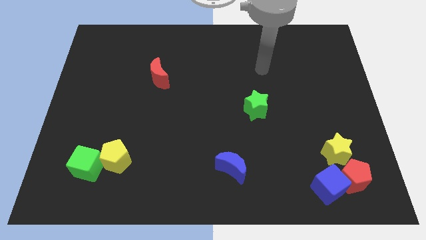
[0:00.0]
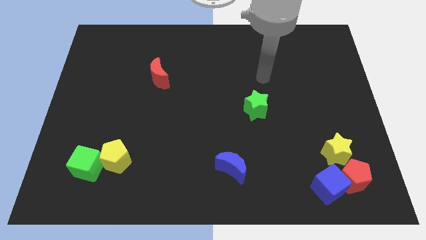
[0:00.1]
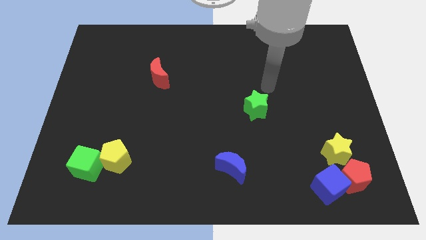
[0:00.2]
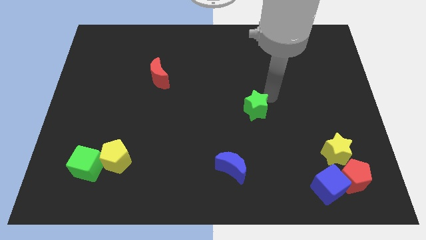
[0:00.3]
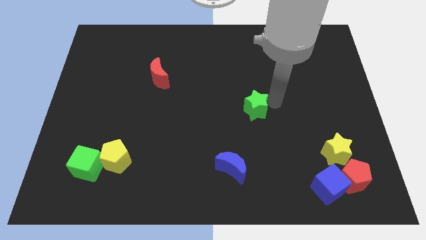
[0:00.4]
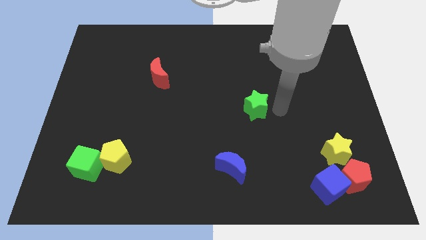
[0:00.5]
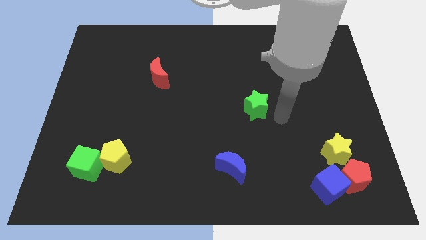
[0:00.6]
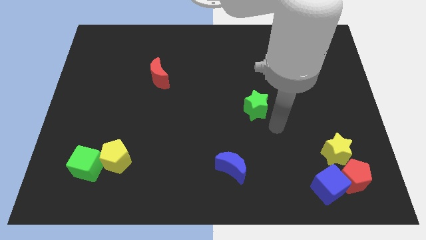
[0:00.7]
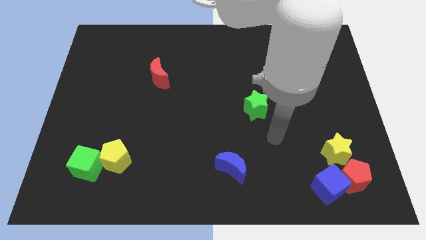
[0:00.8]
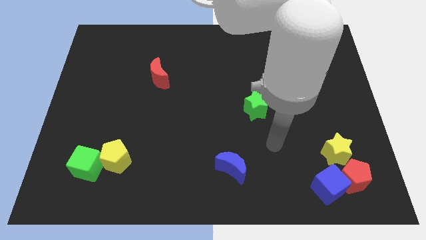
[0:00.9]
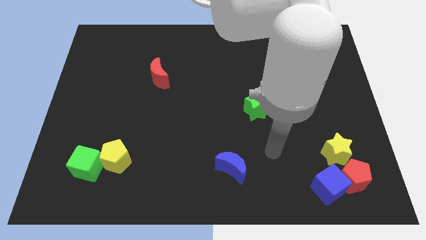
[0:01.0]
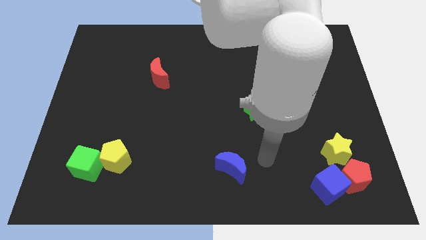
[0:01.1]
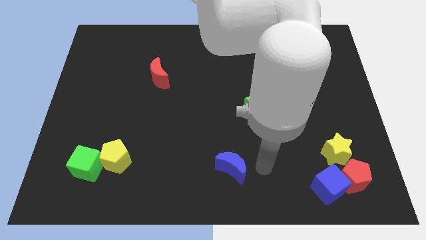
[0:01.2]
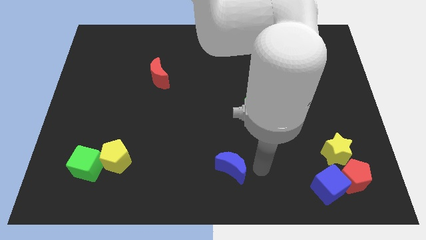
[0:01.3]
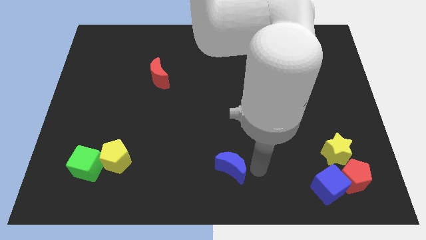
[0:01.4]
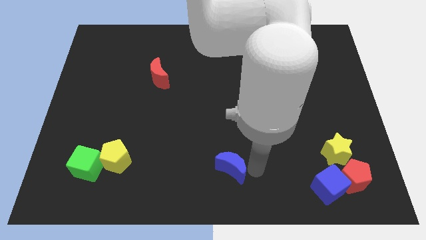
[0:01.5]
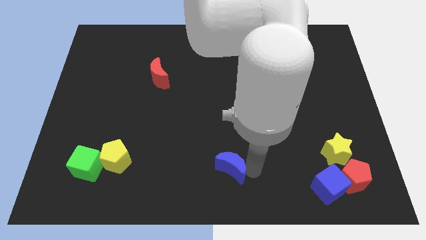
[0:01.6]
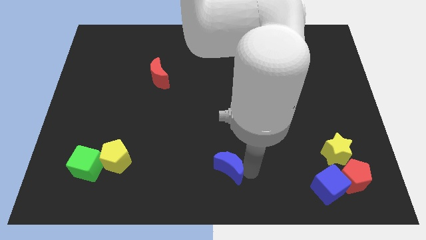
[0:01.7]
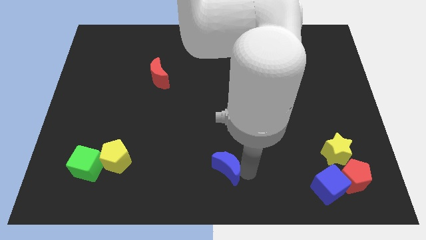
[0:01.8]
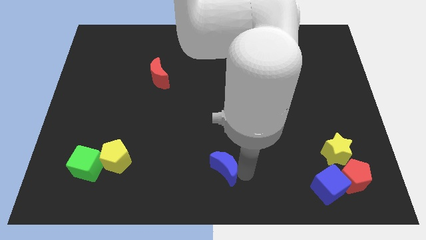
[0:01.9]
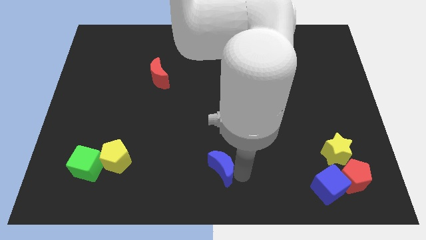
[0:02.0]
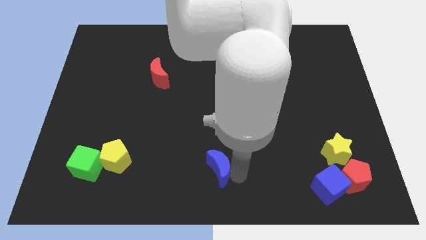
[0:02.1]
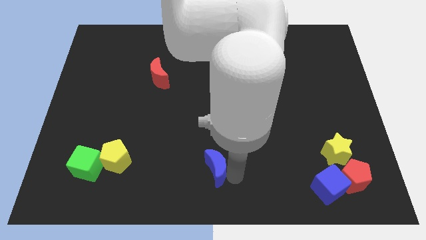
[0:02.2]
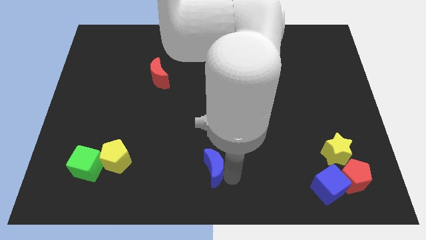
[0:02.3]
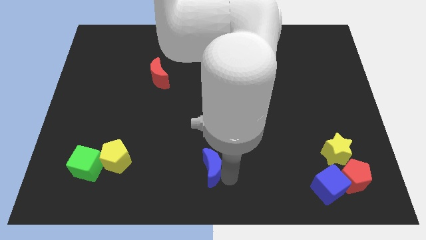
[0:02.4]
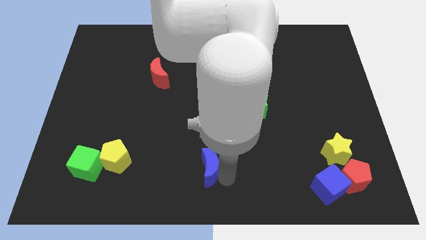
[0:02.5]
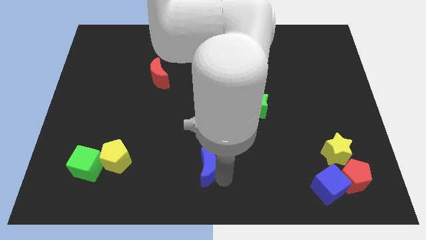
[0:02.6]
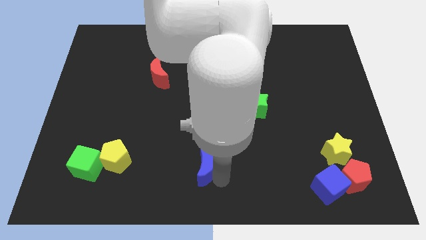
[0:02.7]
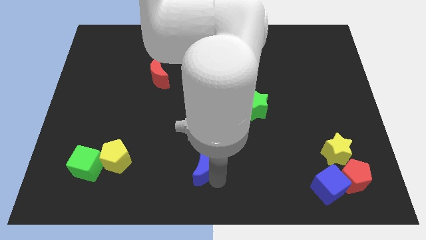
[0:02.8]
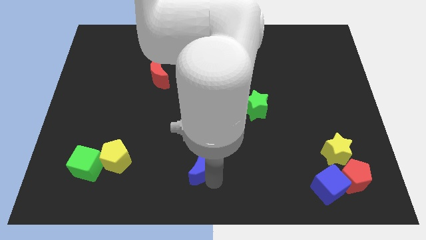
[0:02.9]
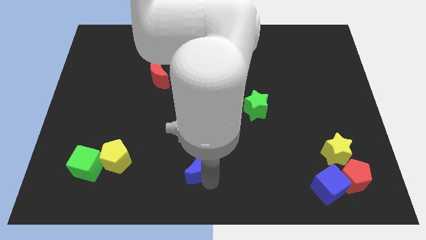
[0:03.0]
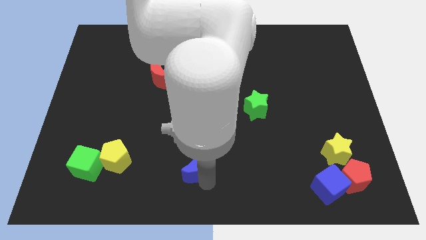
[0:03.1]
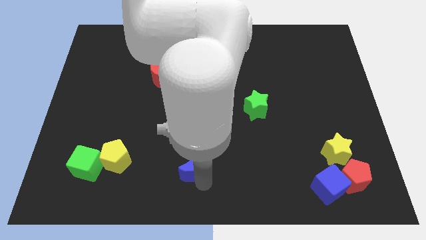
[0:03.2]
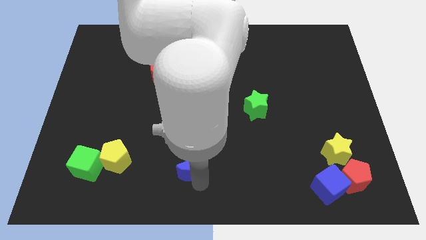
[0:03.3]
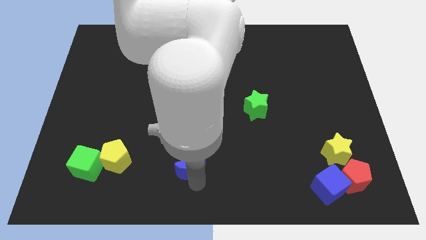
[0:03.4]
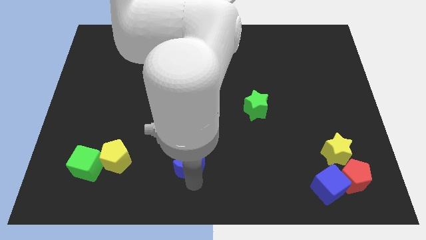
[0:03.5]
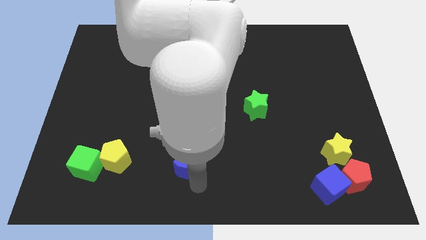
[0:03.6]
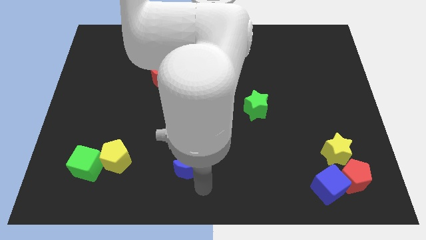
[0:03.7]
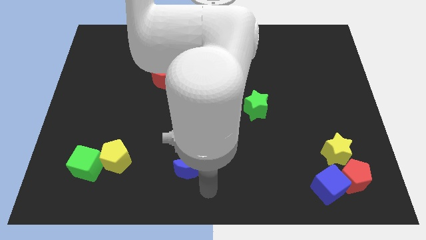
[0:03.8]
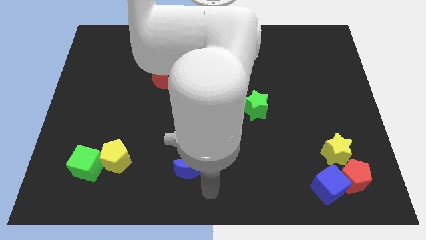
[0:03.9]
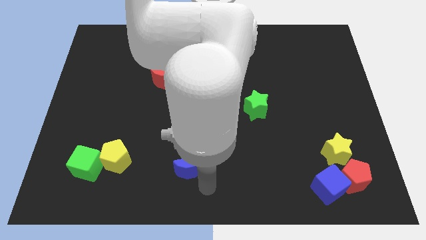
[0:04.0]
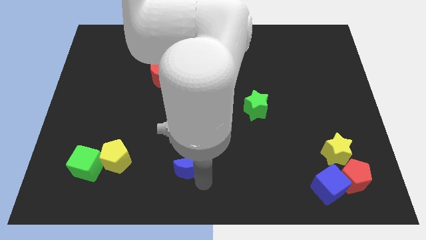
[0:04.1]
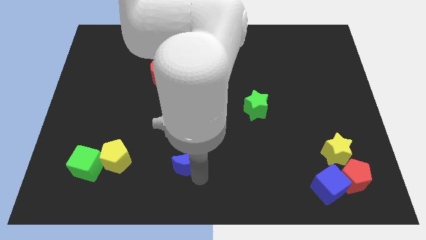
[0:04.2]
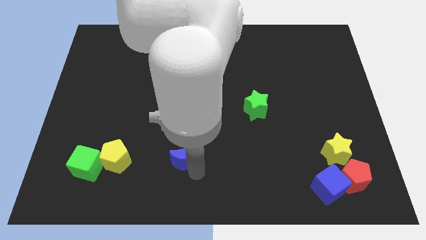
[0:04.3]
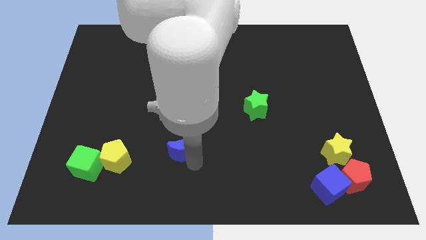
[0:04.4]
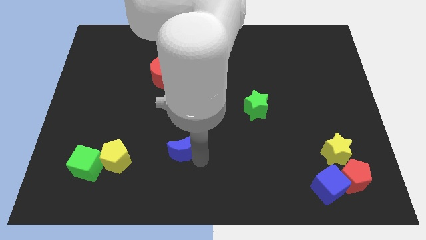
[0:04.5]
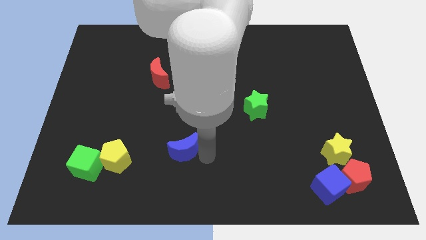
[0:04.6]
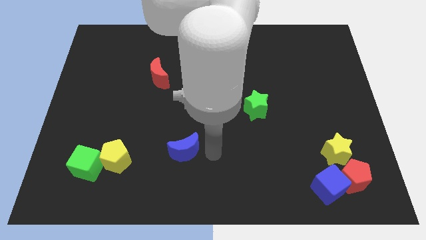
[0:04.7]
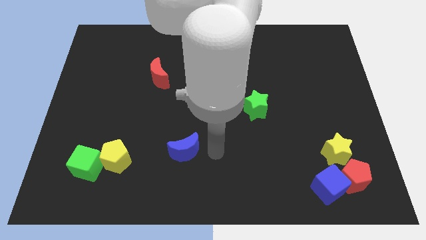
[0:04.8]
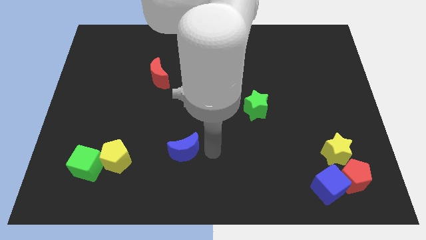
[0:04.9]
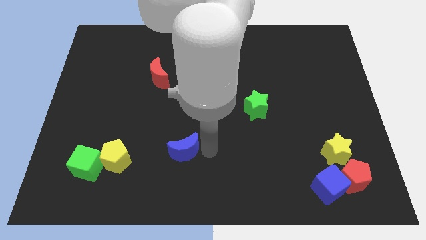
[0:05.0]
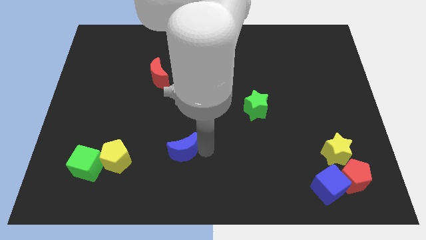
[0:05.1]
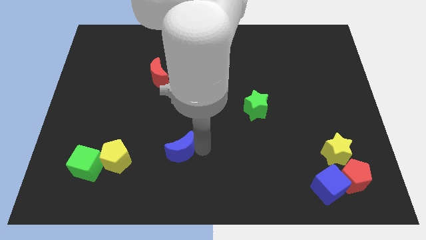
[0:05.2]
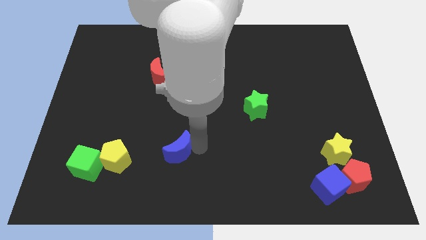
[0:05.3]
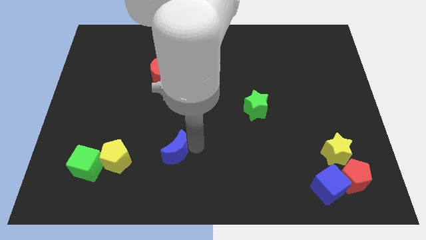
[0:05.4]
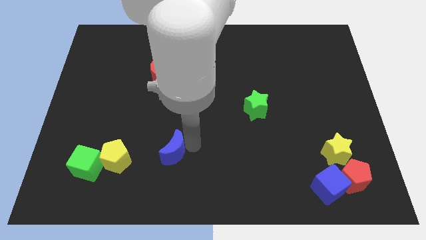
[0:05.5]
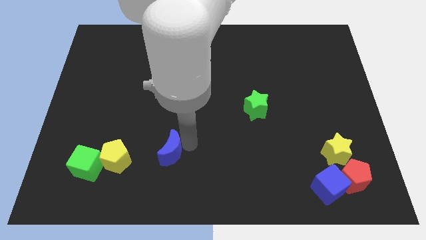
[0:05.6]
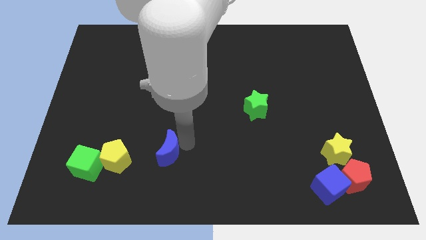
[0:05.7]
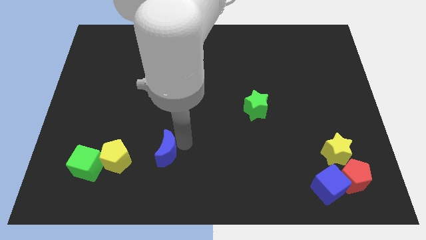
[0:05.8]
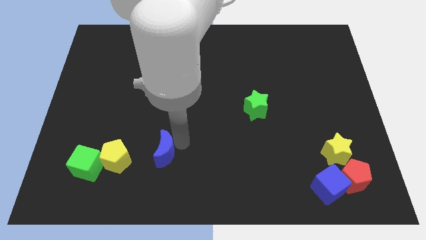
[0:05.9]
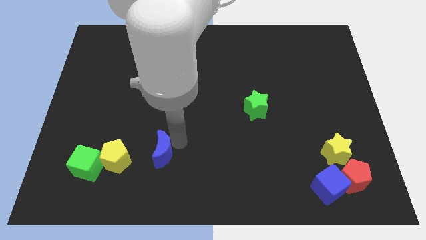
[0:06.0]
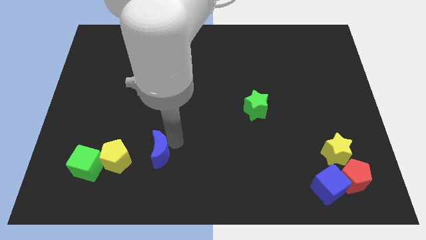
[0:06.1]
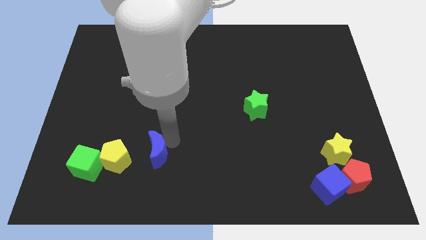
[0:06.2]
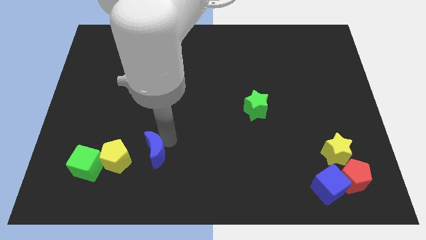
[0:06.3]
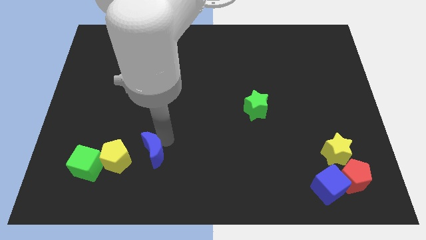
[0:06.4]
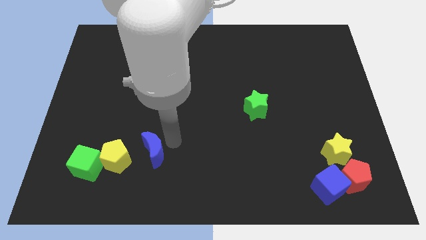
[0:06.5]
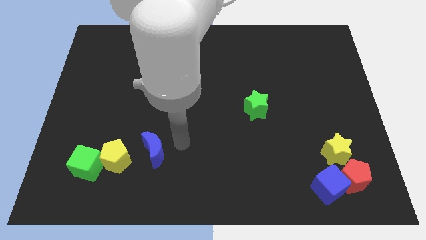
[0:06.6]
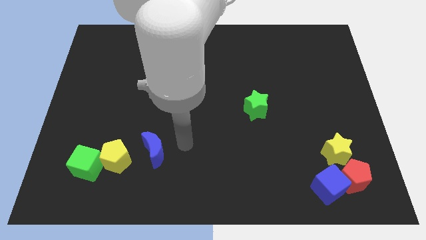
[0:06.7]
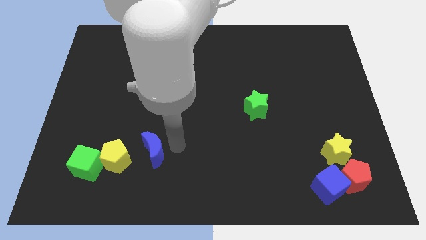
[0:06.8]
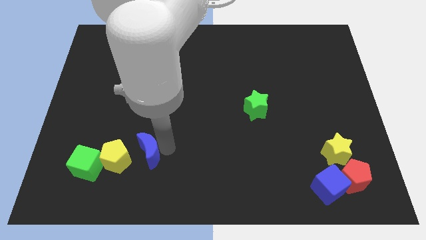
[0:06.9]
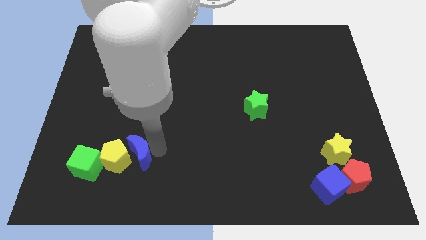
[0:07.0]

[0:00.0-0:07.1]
move the blue moon to the yellow pentagon
